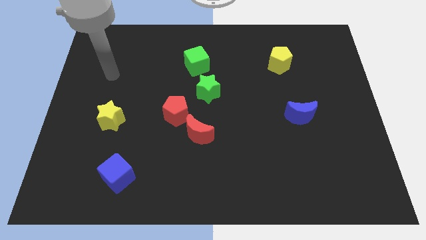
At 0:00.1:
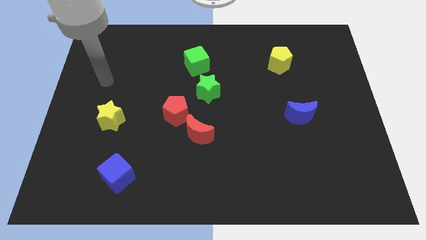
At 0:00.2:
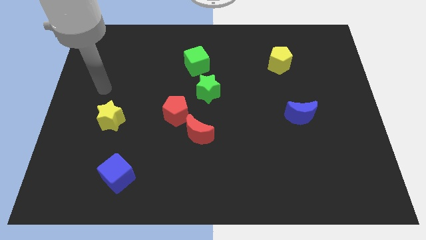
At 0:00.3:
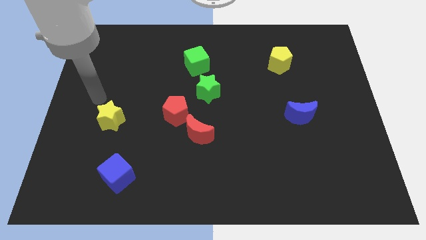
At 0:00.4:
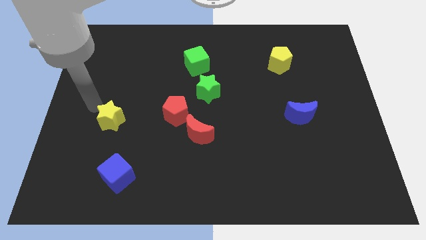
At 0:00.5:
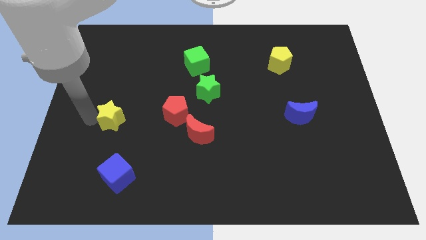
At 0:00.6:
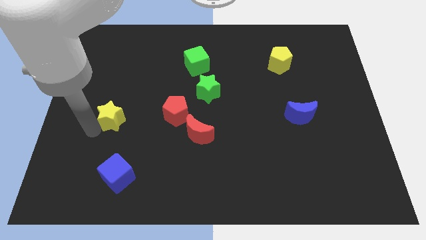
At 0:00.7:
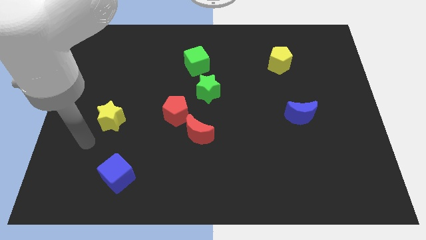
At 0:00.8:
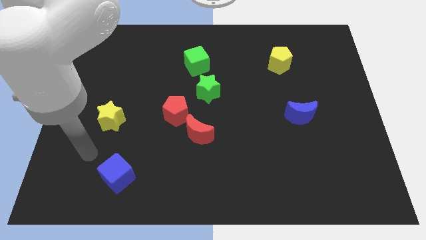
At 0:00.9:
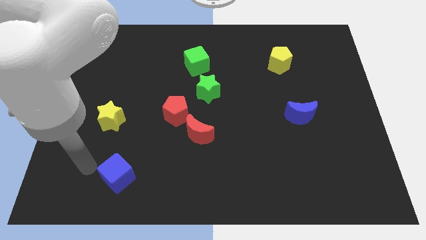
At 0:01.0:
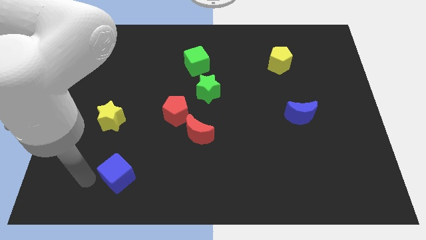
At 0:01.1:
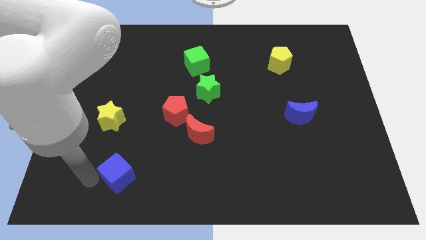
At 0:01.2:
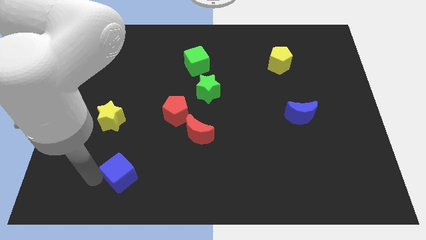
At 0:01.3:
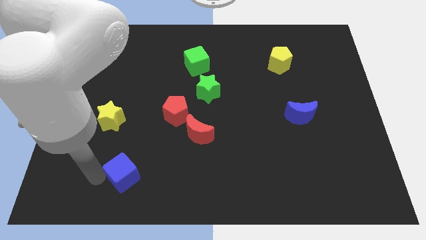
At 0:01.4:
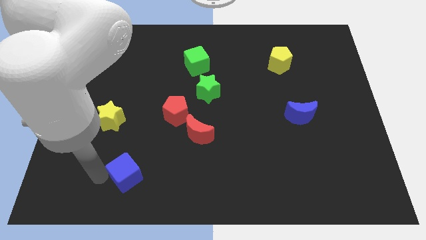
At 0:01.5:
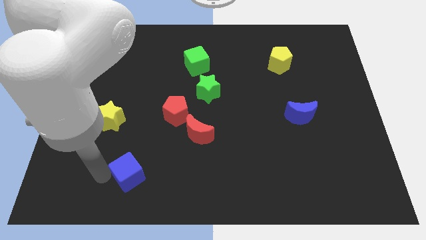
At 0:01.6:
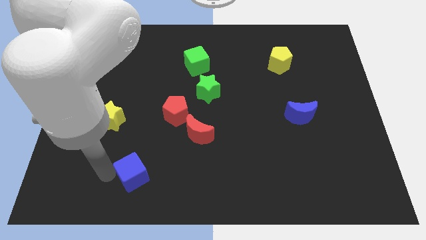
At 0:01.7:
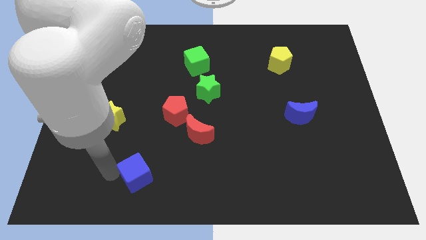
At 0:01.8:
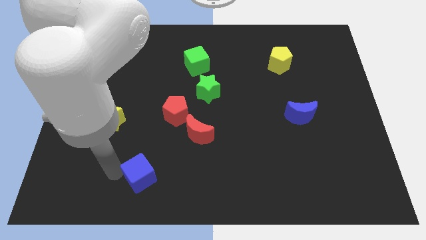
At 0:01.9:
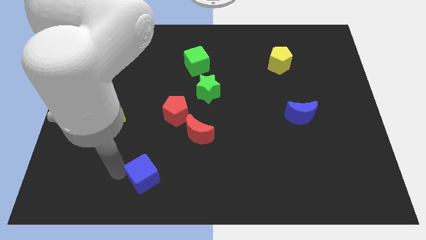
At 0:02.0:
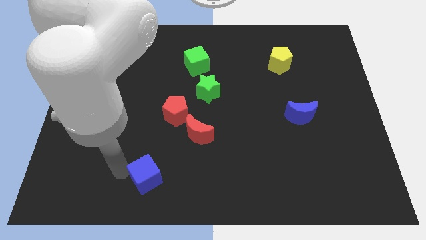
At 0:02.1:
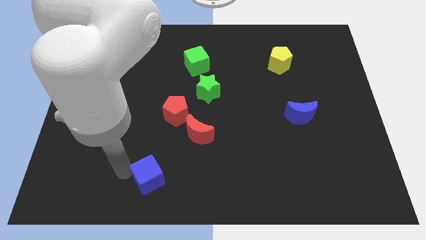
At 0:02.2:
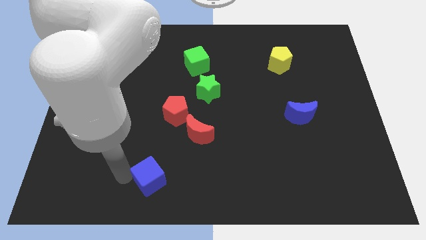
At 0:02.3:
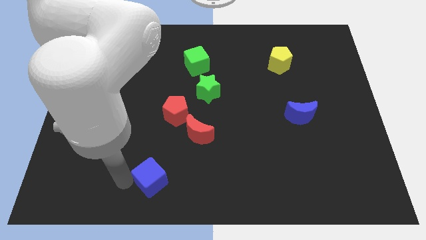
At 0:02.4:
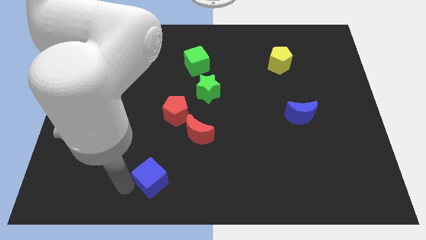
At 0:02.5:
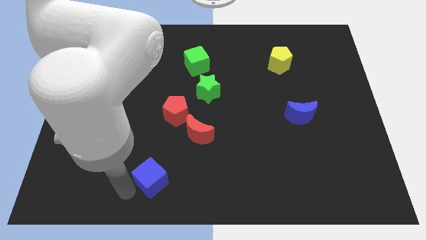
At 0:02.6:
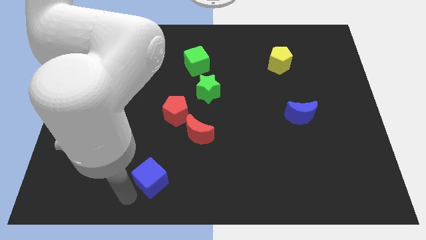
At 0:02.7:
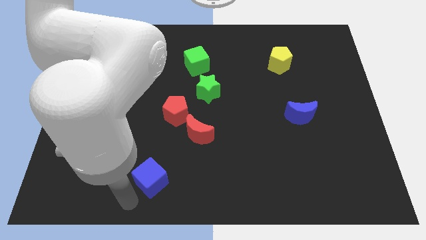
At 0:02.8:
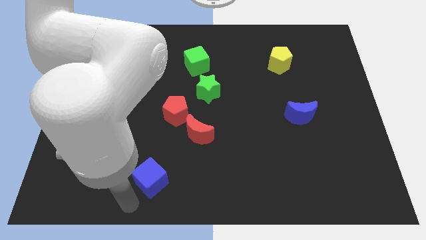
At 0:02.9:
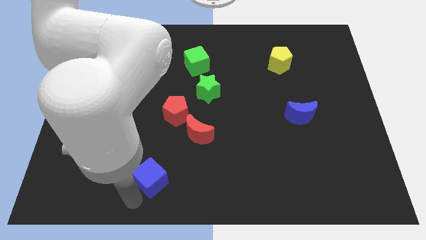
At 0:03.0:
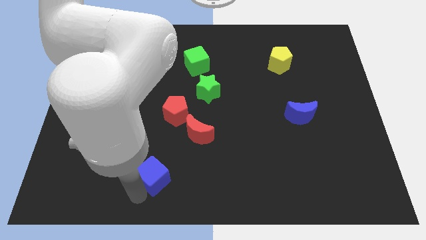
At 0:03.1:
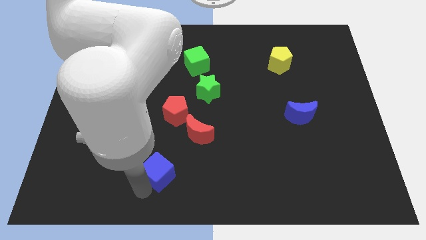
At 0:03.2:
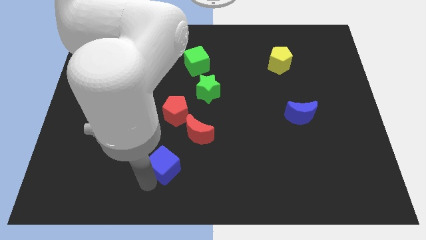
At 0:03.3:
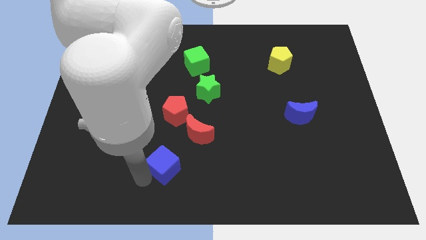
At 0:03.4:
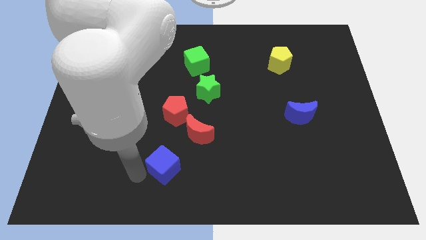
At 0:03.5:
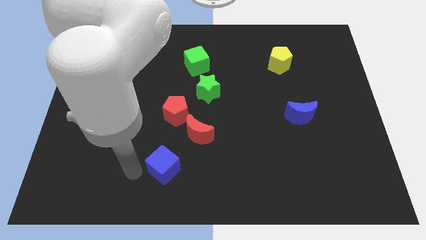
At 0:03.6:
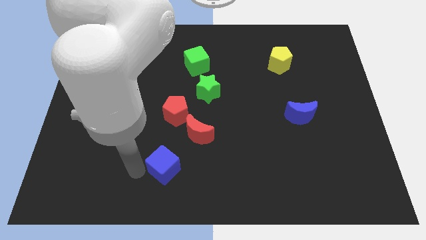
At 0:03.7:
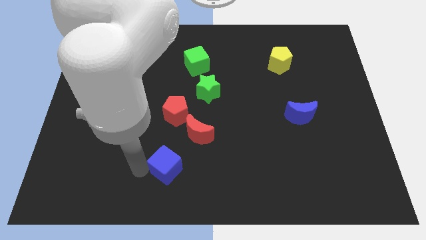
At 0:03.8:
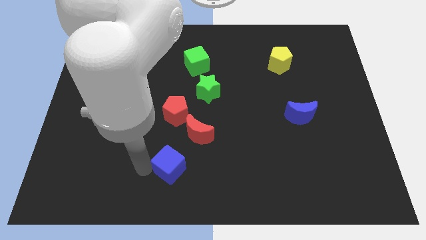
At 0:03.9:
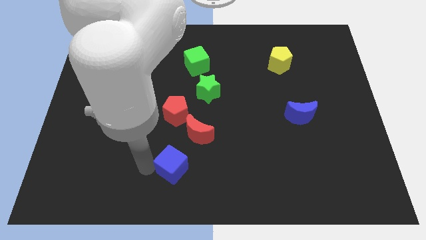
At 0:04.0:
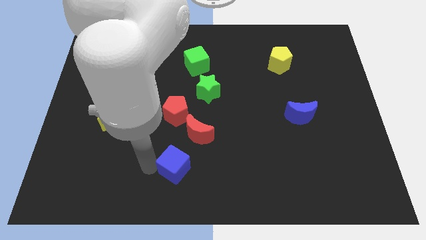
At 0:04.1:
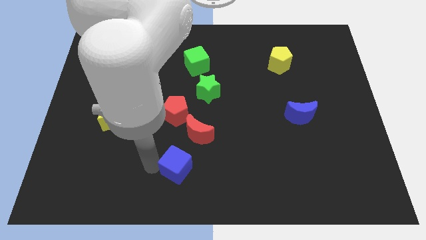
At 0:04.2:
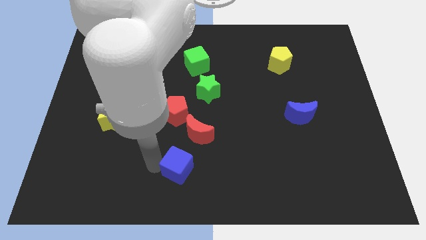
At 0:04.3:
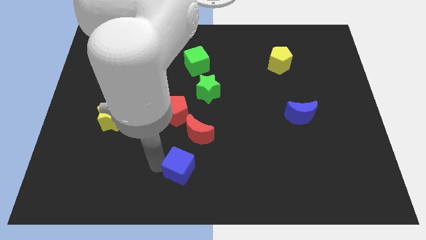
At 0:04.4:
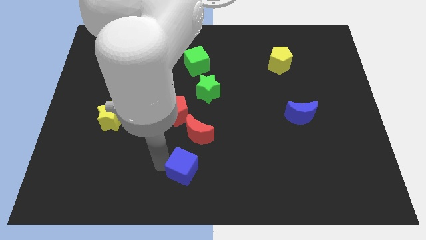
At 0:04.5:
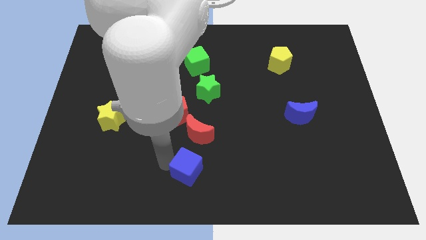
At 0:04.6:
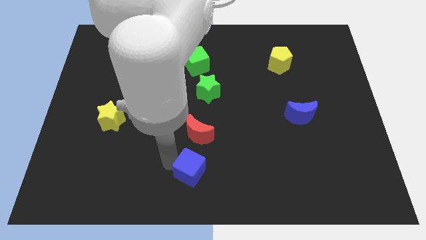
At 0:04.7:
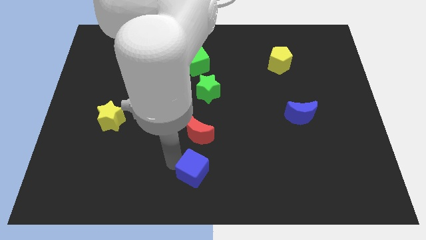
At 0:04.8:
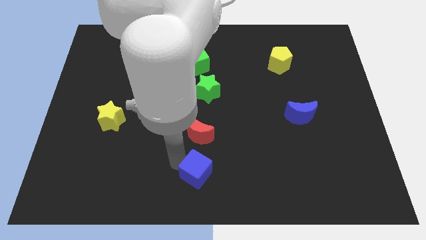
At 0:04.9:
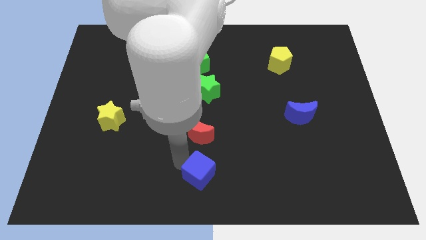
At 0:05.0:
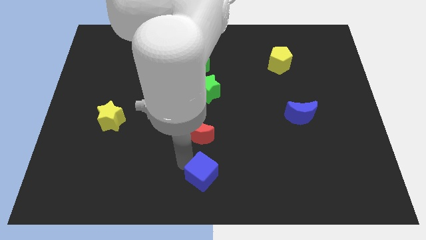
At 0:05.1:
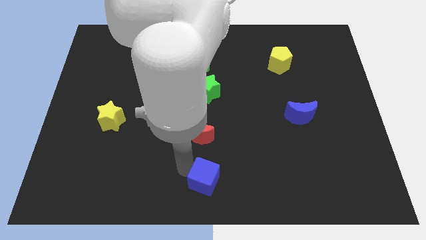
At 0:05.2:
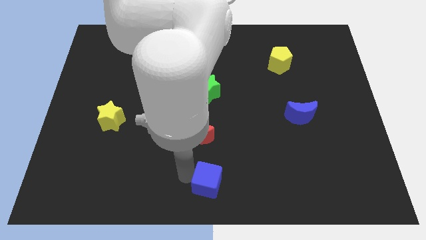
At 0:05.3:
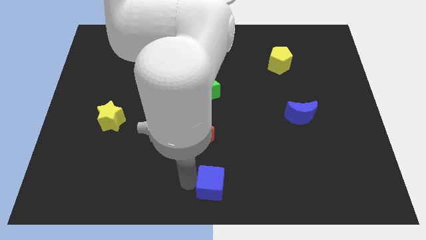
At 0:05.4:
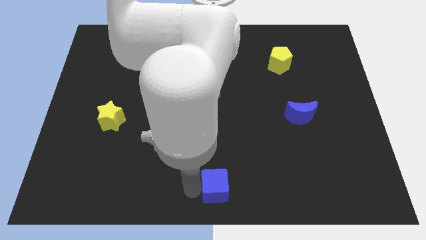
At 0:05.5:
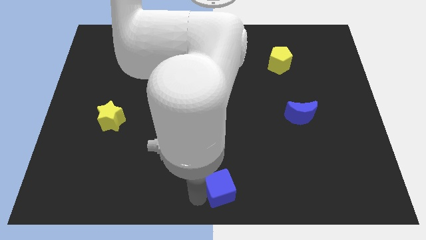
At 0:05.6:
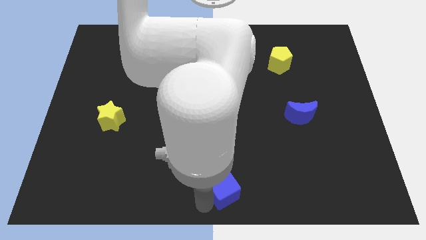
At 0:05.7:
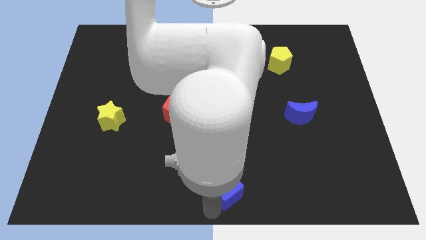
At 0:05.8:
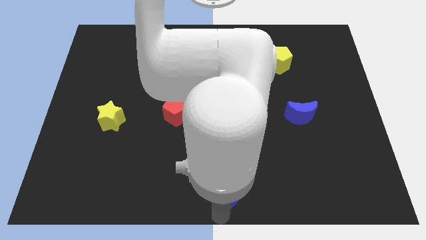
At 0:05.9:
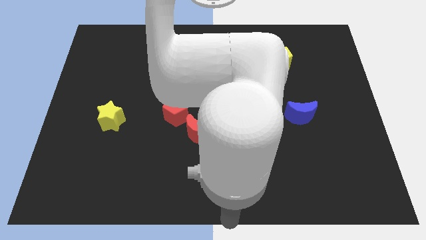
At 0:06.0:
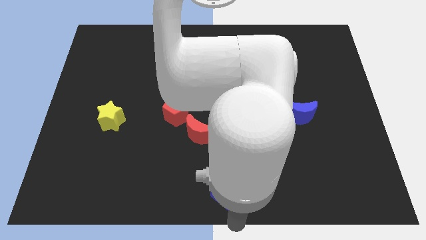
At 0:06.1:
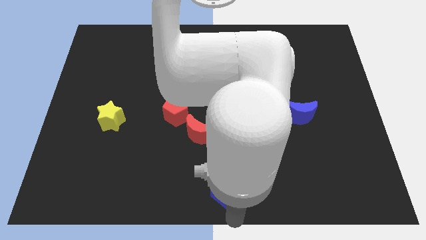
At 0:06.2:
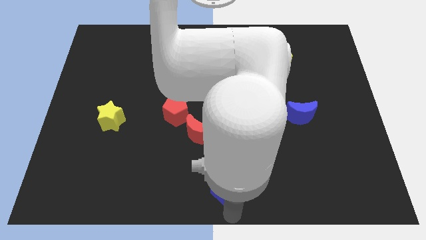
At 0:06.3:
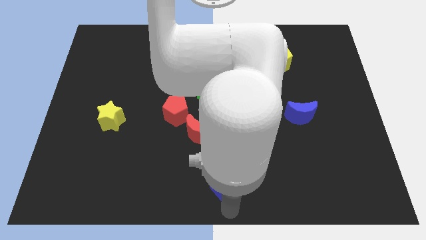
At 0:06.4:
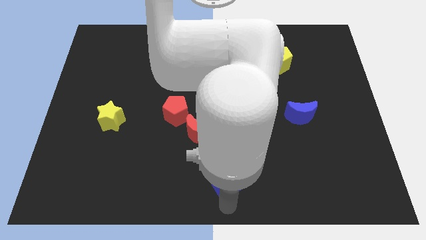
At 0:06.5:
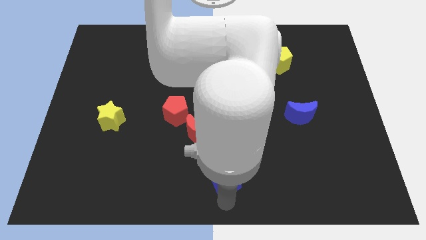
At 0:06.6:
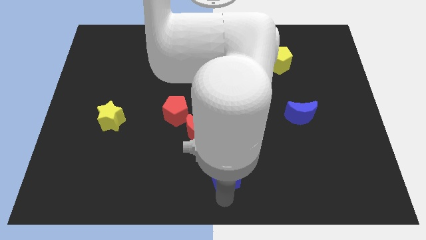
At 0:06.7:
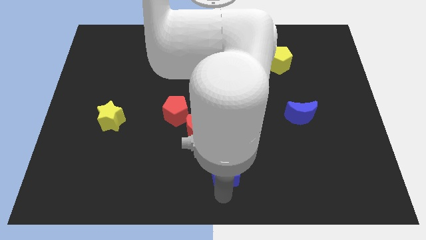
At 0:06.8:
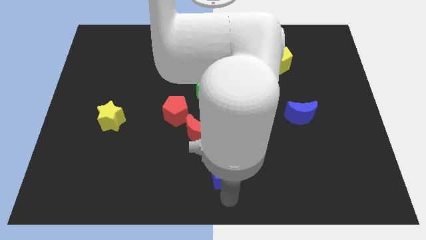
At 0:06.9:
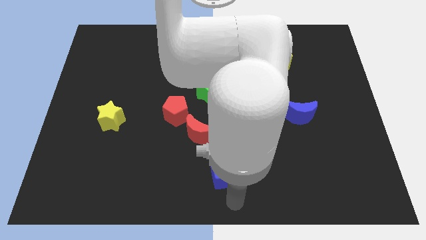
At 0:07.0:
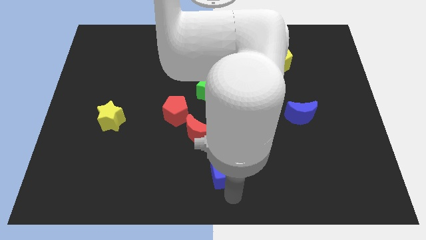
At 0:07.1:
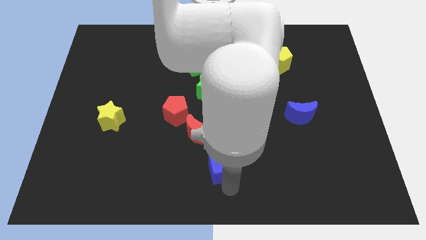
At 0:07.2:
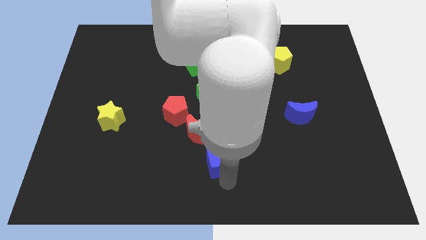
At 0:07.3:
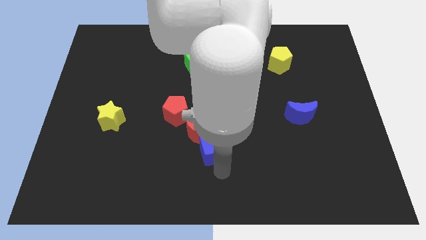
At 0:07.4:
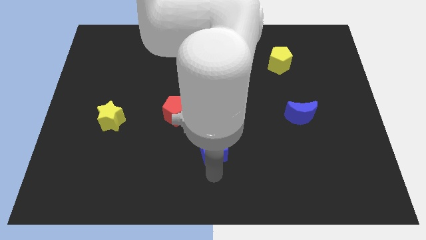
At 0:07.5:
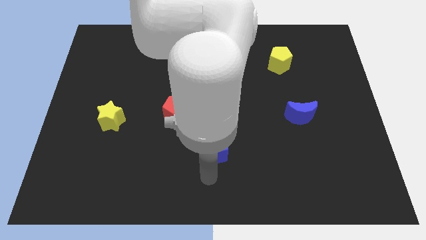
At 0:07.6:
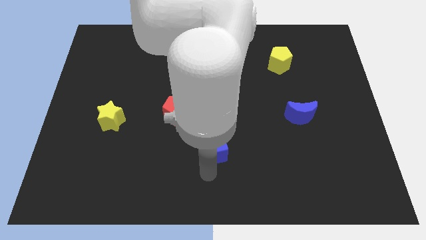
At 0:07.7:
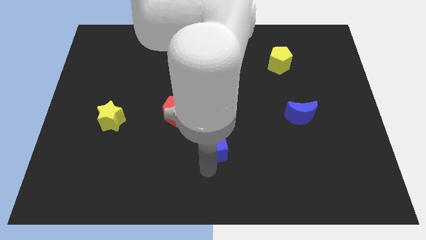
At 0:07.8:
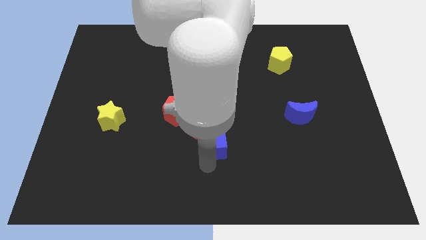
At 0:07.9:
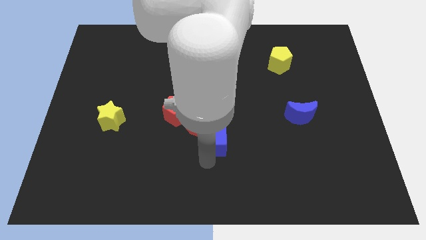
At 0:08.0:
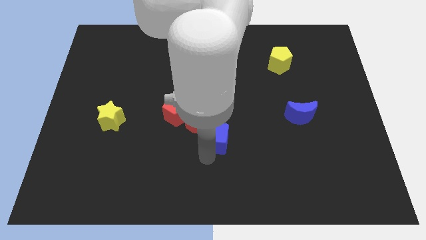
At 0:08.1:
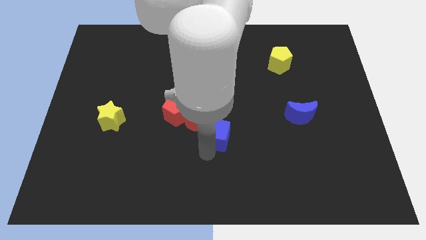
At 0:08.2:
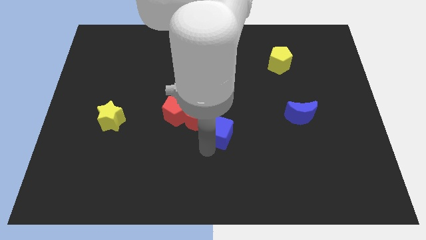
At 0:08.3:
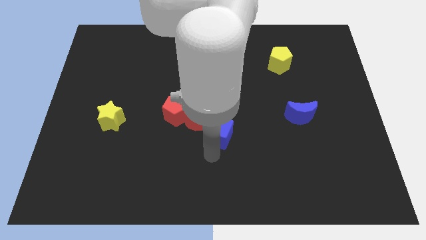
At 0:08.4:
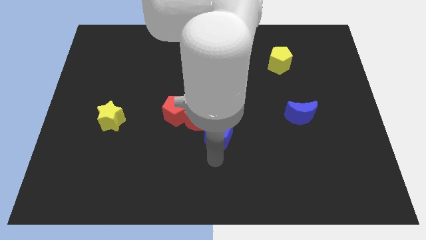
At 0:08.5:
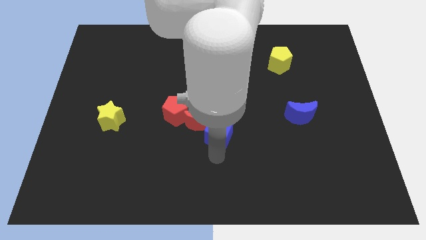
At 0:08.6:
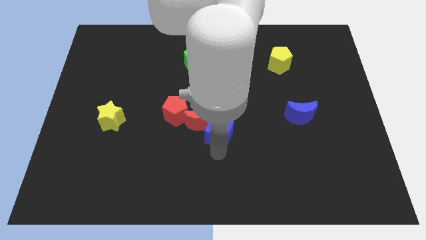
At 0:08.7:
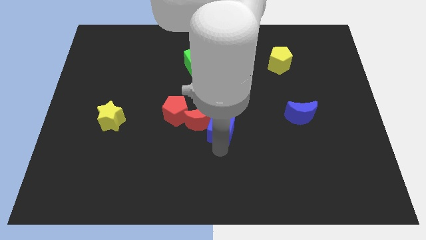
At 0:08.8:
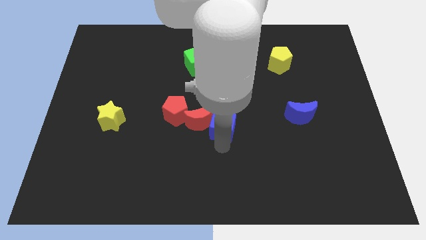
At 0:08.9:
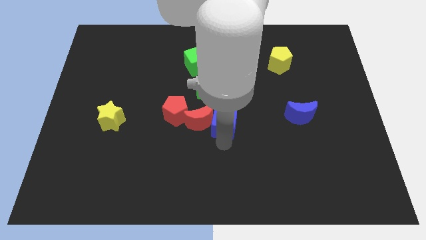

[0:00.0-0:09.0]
put the blue cube to the top right of the red moon
